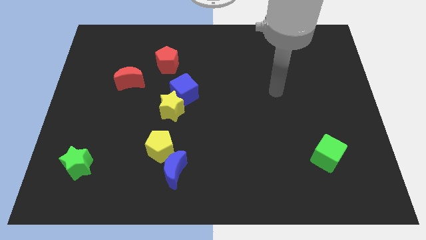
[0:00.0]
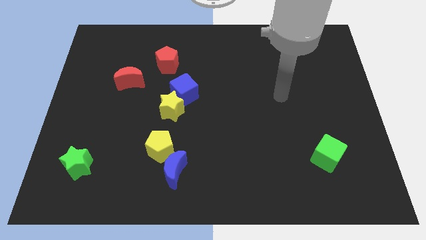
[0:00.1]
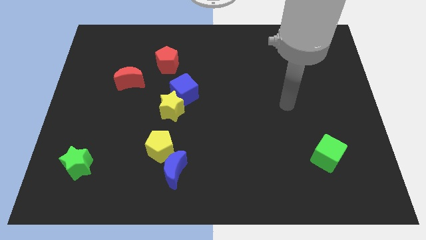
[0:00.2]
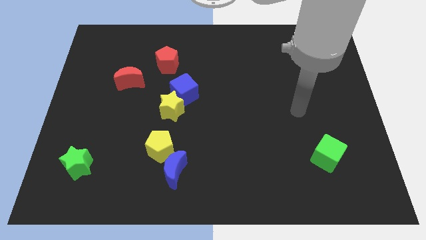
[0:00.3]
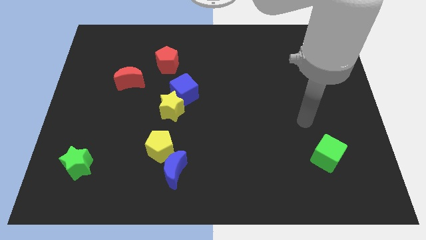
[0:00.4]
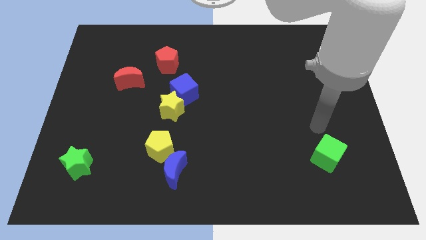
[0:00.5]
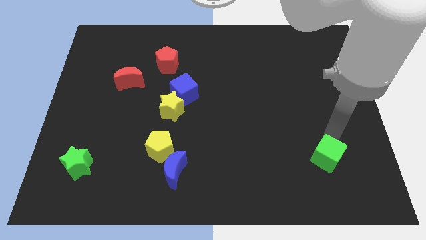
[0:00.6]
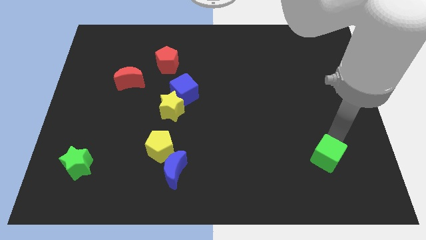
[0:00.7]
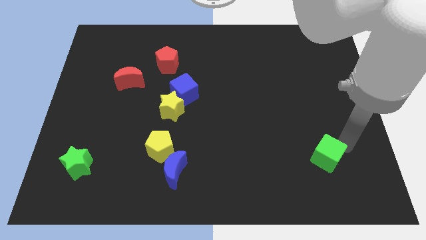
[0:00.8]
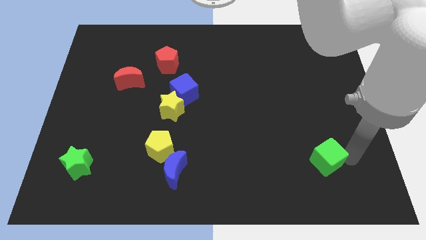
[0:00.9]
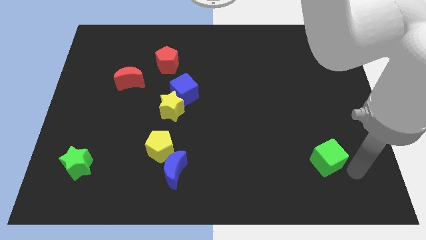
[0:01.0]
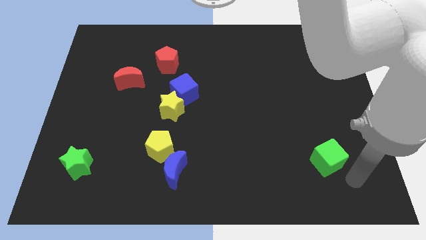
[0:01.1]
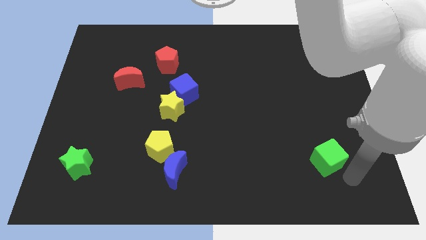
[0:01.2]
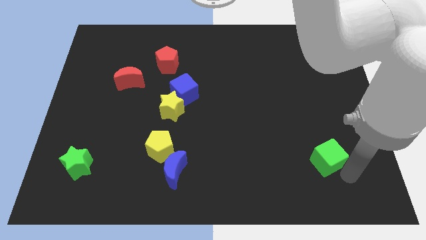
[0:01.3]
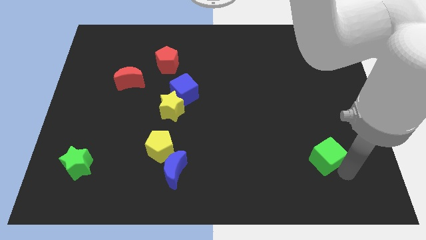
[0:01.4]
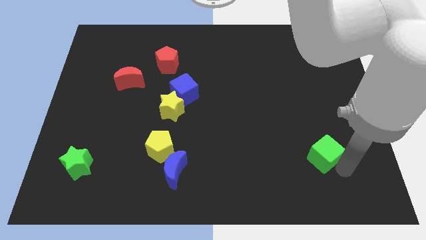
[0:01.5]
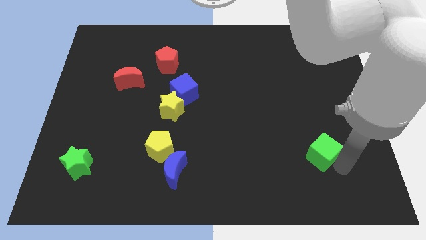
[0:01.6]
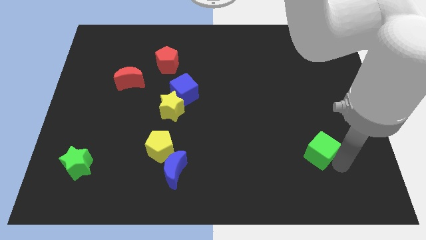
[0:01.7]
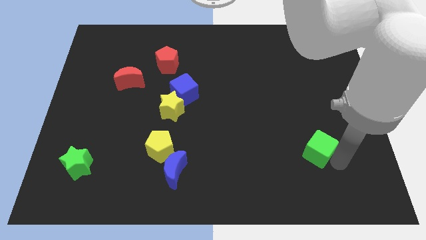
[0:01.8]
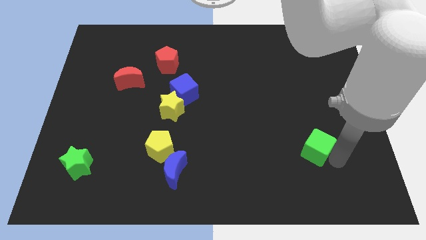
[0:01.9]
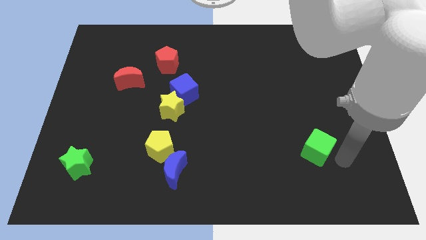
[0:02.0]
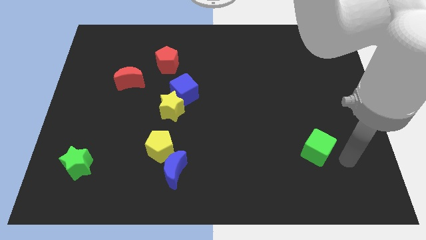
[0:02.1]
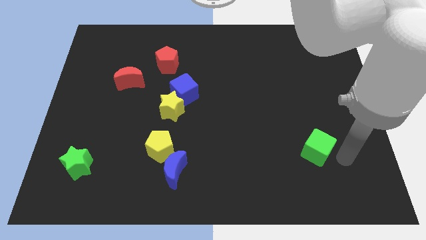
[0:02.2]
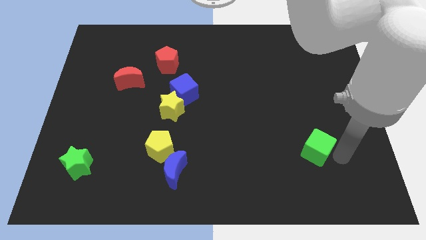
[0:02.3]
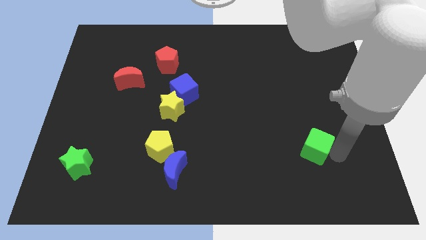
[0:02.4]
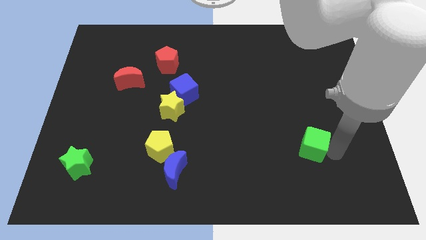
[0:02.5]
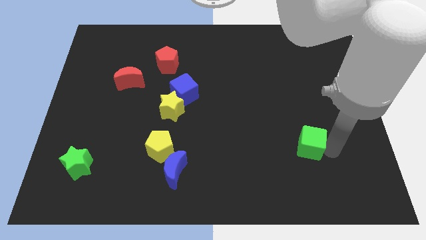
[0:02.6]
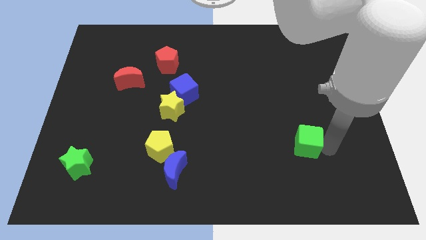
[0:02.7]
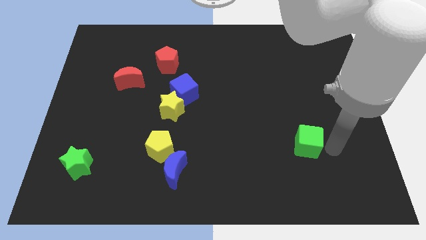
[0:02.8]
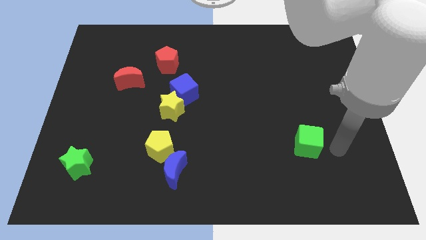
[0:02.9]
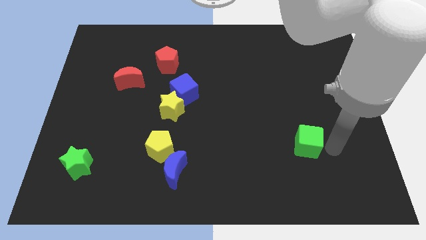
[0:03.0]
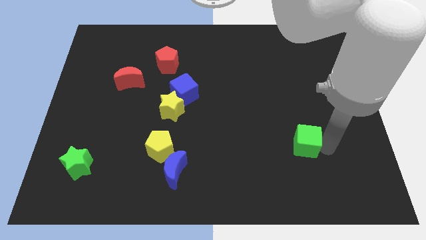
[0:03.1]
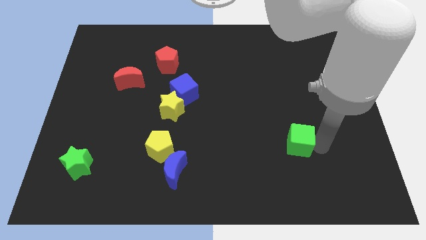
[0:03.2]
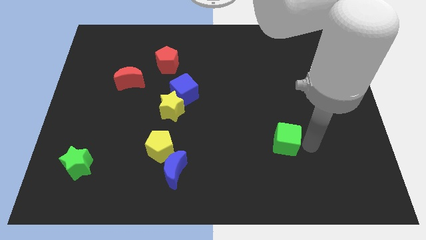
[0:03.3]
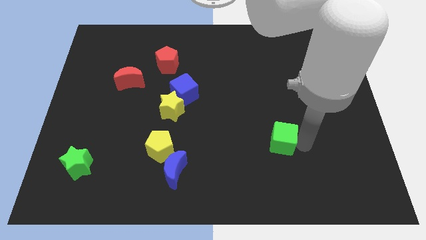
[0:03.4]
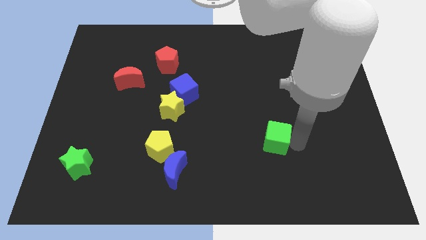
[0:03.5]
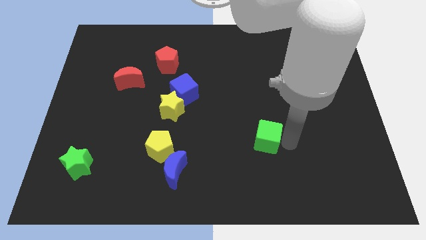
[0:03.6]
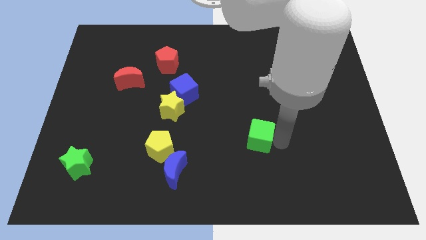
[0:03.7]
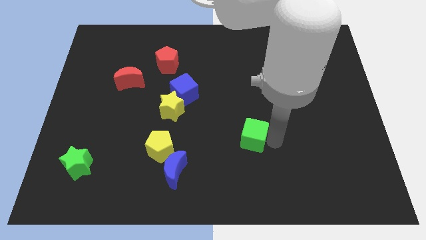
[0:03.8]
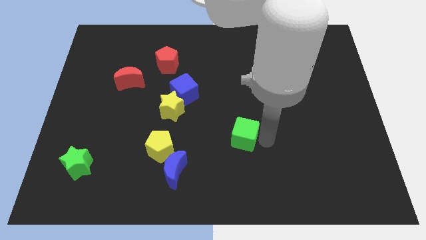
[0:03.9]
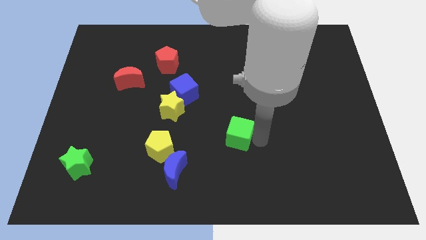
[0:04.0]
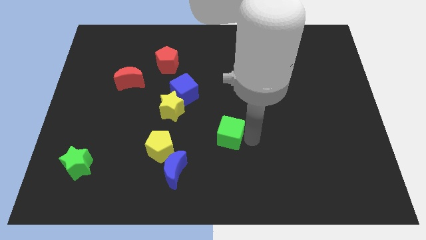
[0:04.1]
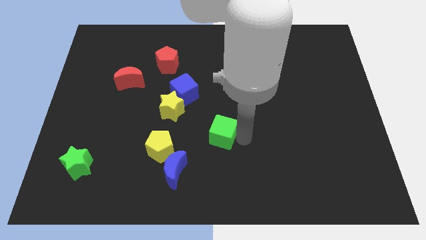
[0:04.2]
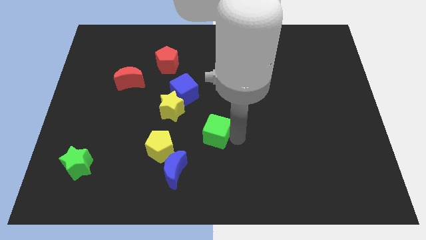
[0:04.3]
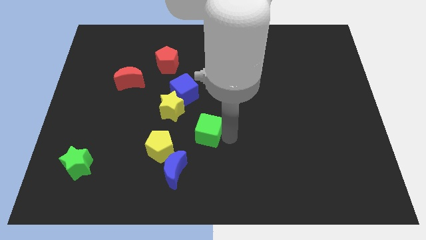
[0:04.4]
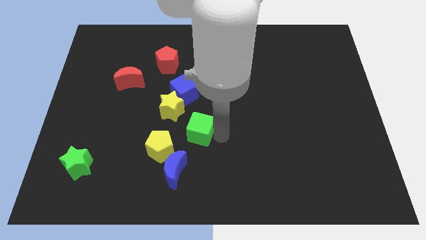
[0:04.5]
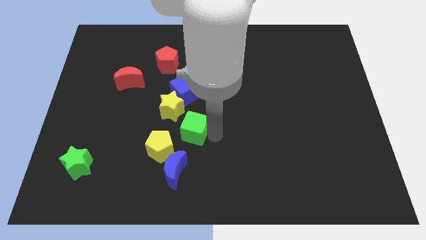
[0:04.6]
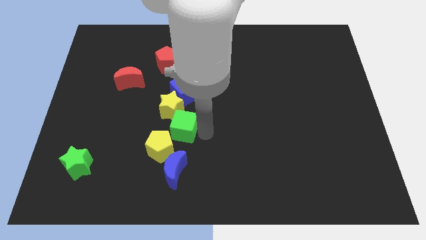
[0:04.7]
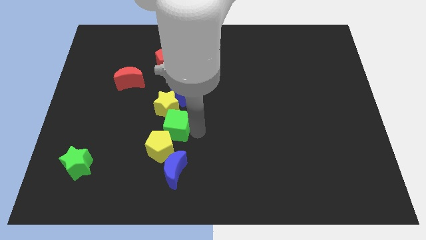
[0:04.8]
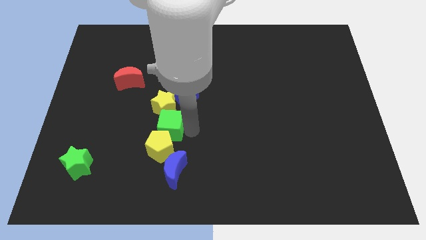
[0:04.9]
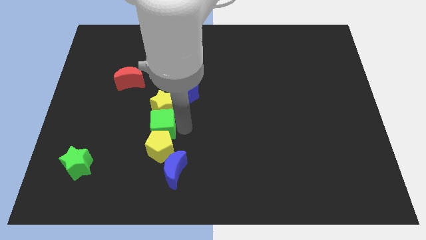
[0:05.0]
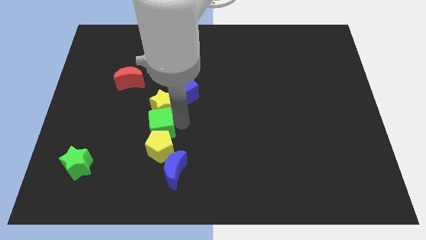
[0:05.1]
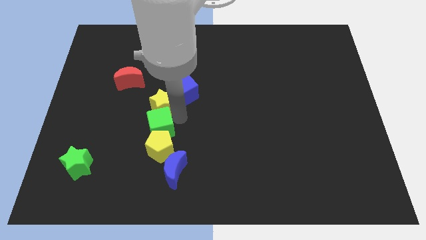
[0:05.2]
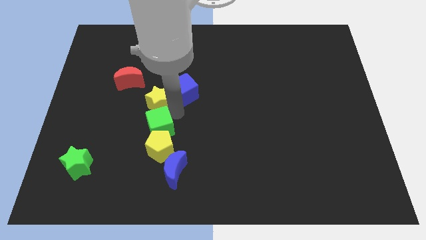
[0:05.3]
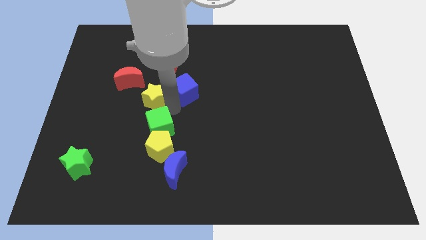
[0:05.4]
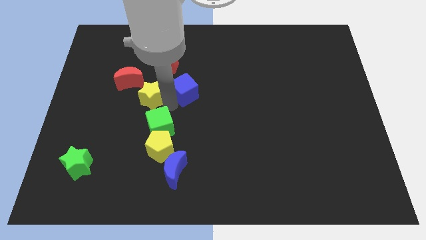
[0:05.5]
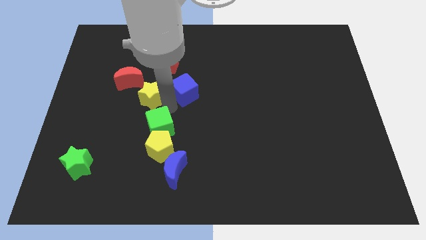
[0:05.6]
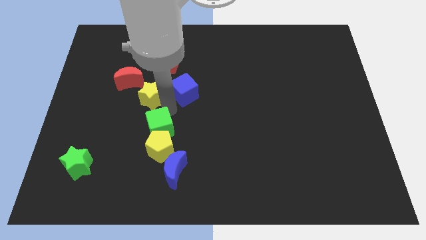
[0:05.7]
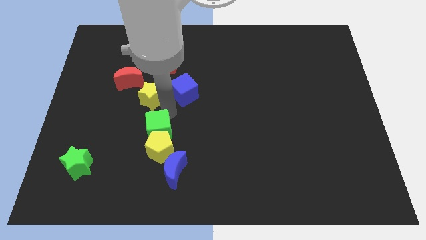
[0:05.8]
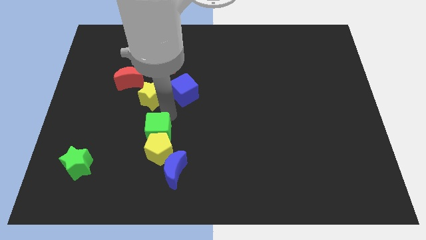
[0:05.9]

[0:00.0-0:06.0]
slide the green cube to the top left of the blue moon

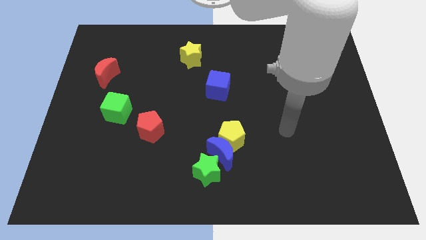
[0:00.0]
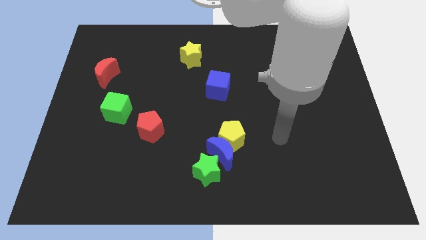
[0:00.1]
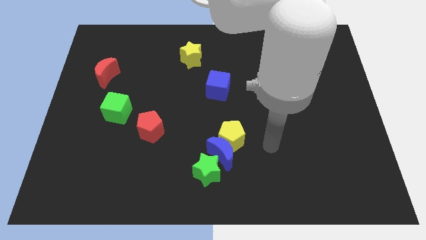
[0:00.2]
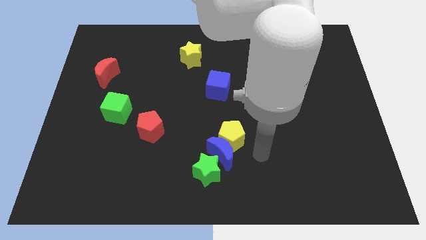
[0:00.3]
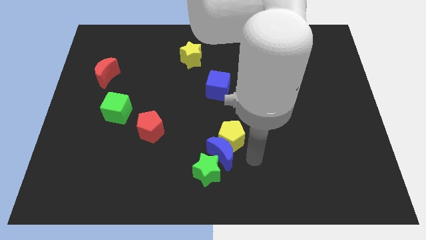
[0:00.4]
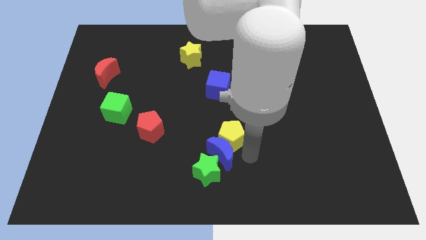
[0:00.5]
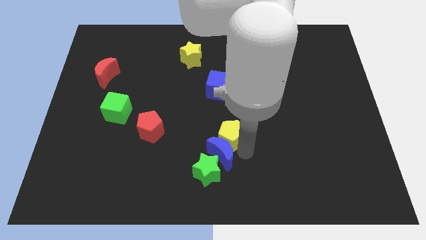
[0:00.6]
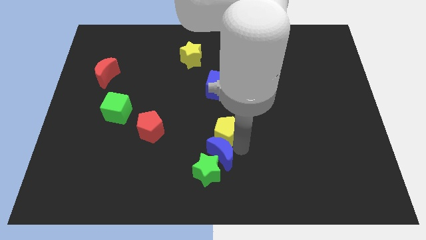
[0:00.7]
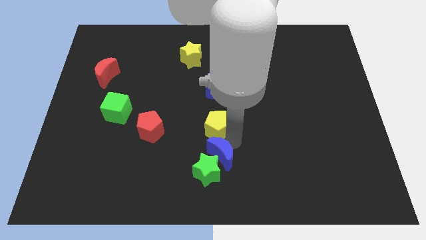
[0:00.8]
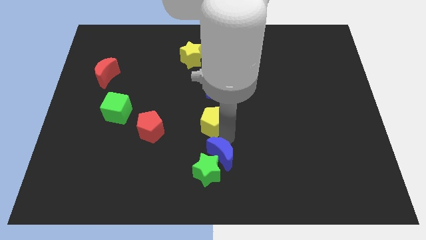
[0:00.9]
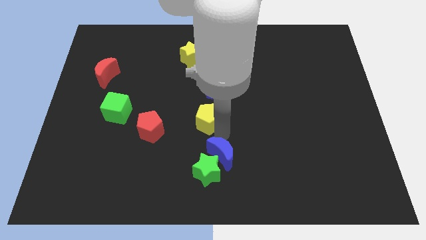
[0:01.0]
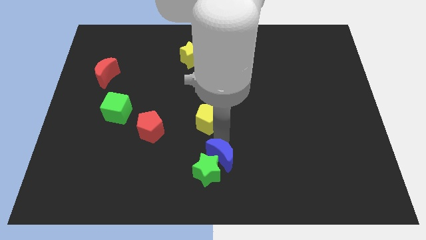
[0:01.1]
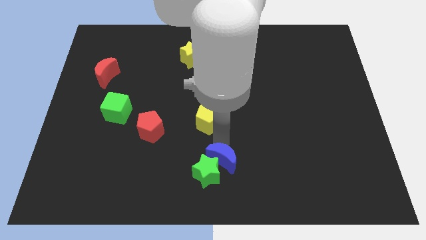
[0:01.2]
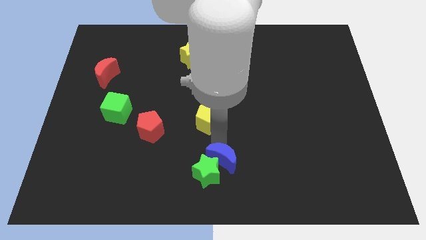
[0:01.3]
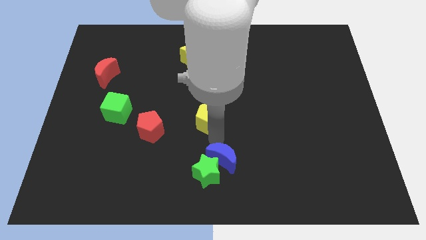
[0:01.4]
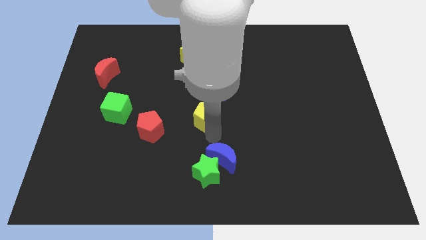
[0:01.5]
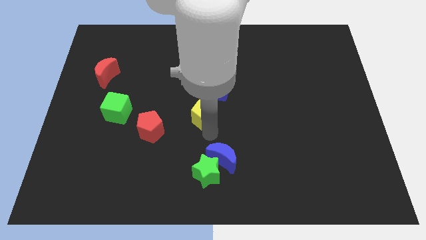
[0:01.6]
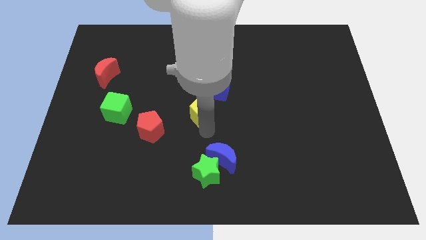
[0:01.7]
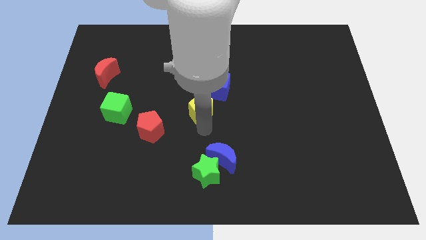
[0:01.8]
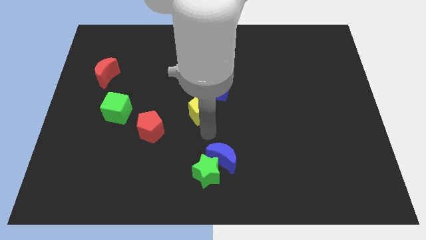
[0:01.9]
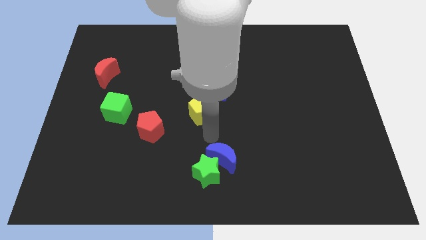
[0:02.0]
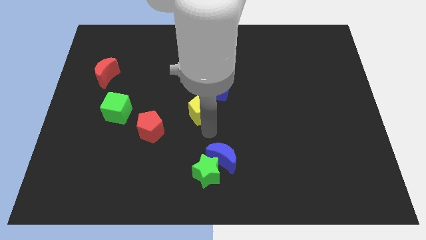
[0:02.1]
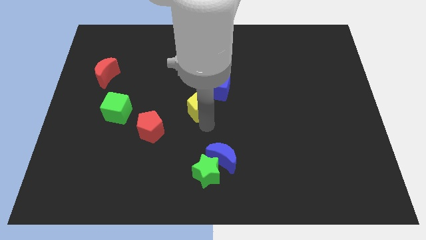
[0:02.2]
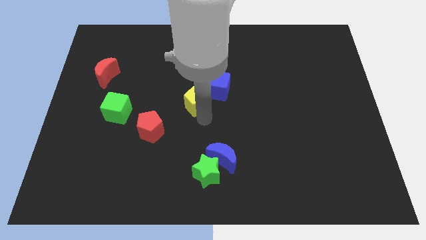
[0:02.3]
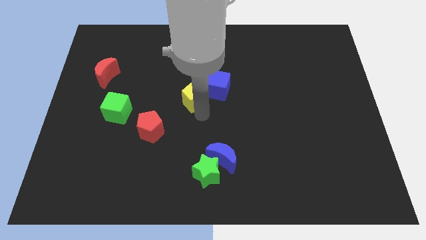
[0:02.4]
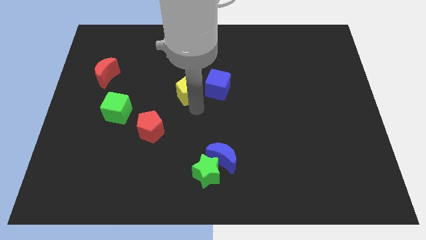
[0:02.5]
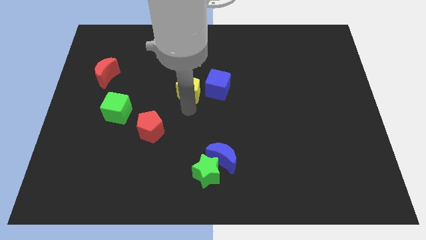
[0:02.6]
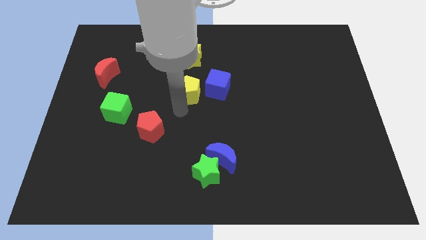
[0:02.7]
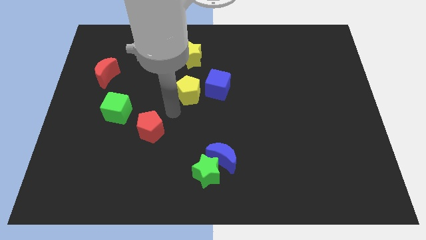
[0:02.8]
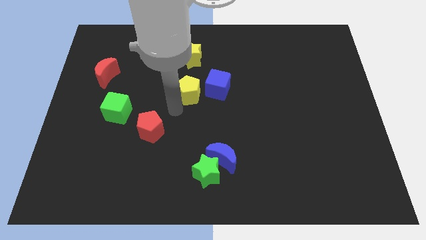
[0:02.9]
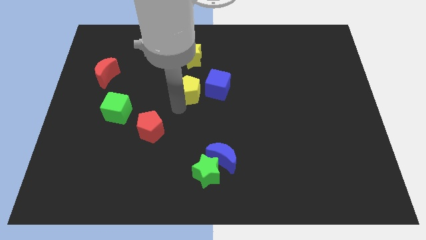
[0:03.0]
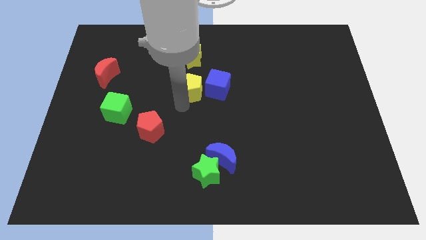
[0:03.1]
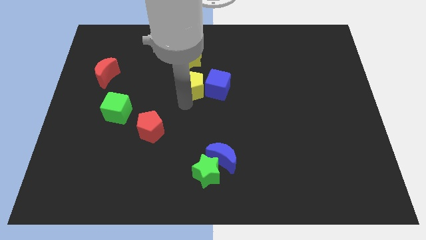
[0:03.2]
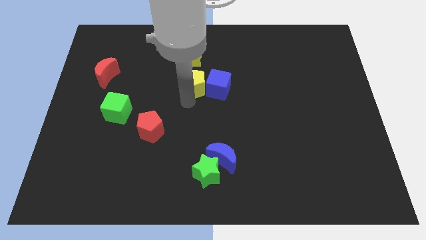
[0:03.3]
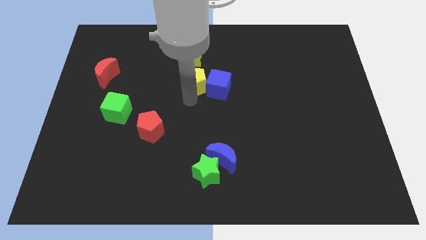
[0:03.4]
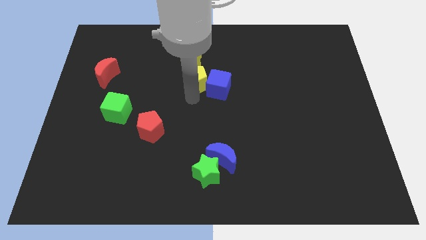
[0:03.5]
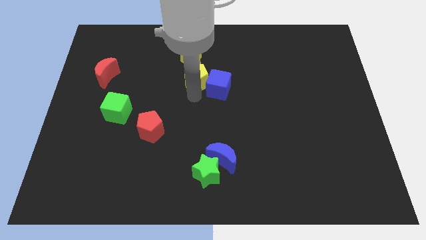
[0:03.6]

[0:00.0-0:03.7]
put the yellow pentagon to the bottom right of the yellow star
